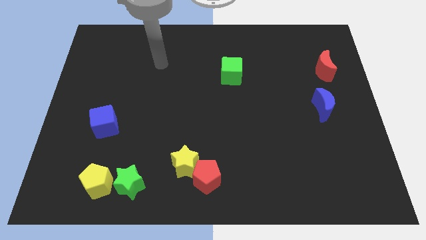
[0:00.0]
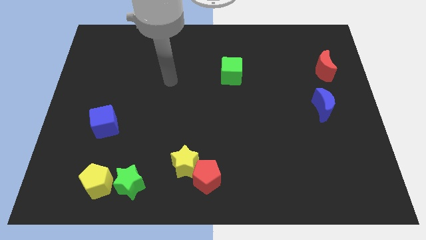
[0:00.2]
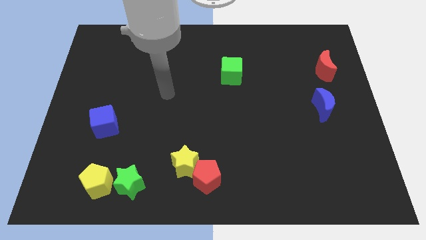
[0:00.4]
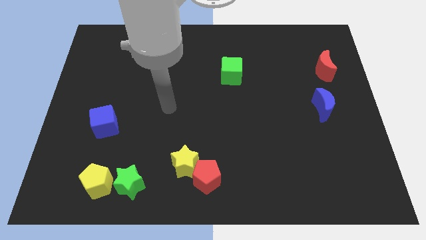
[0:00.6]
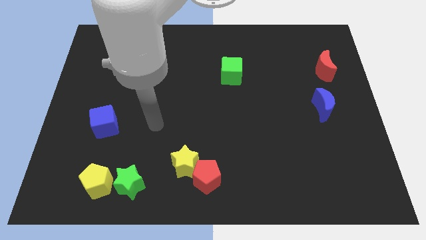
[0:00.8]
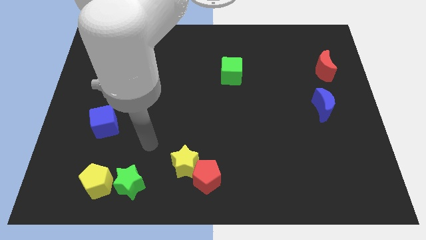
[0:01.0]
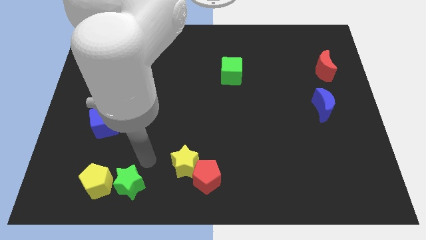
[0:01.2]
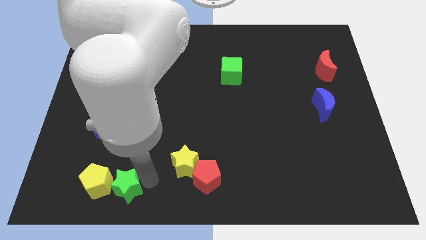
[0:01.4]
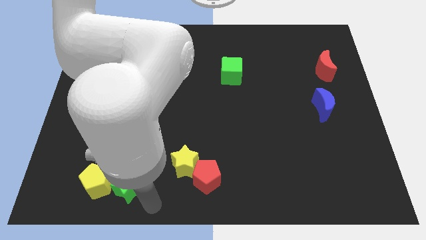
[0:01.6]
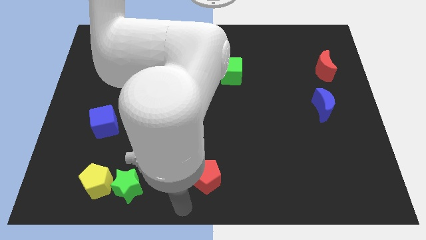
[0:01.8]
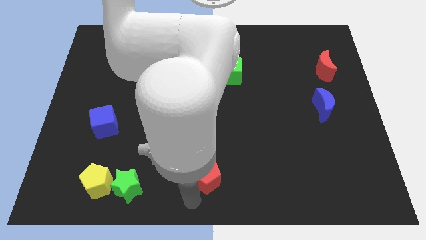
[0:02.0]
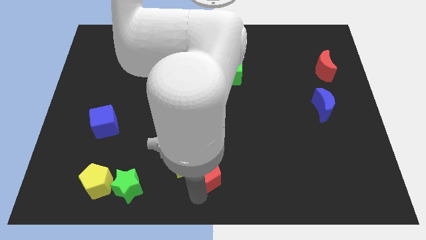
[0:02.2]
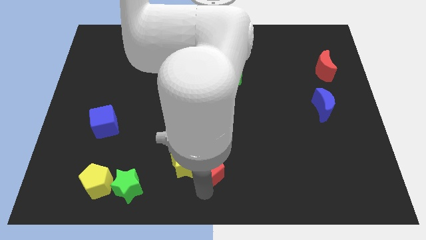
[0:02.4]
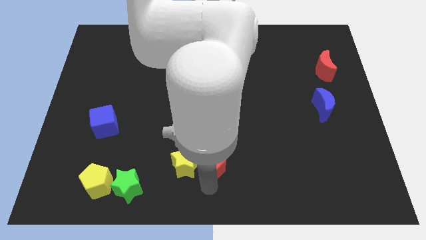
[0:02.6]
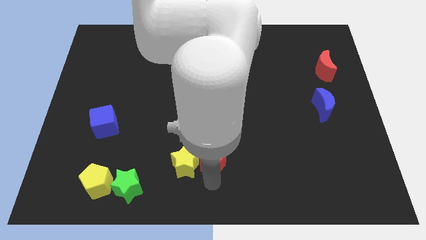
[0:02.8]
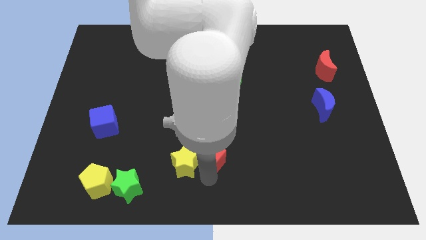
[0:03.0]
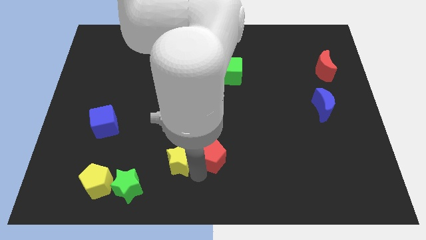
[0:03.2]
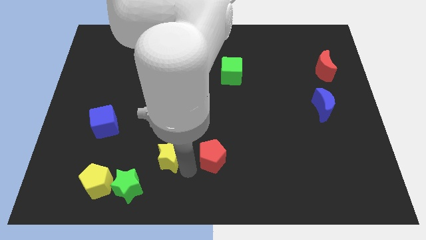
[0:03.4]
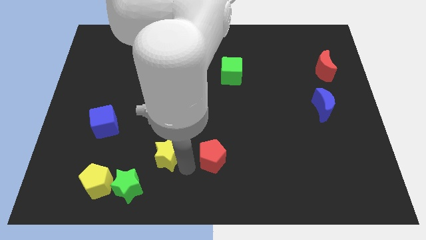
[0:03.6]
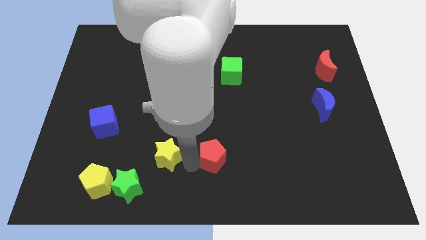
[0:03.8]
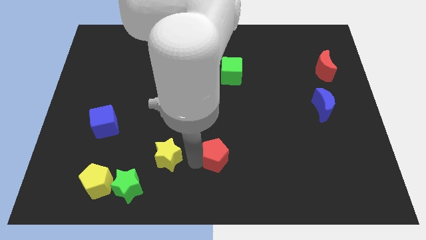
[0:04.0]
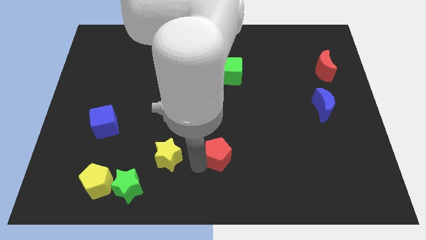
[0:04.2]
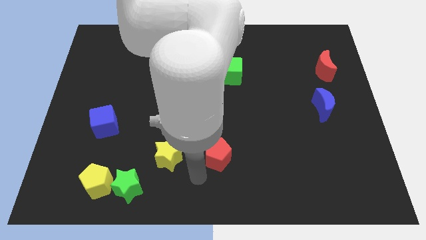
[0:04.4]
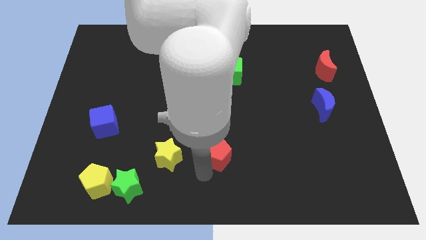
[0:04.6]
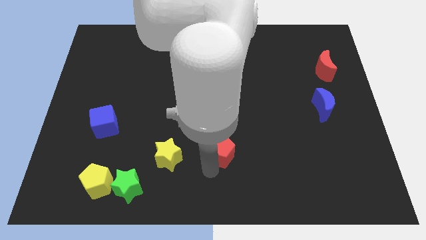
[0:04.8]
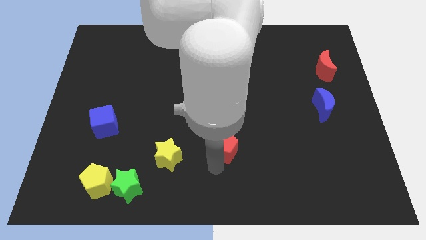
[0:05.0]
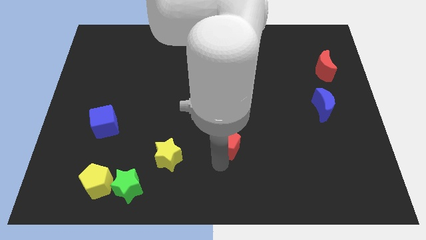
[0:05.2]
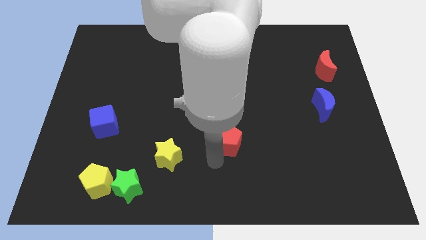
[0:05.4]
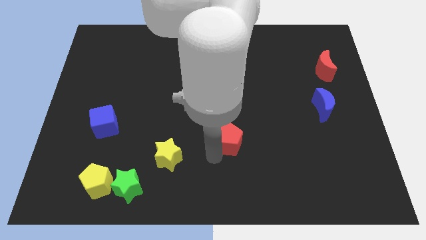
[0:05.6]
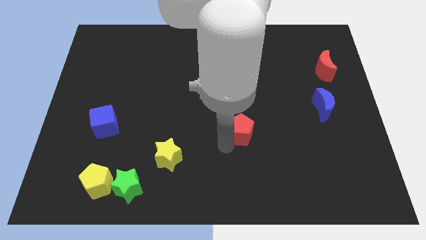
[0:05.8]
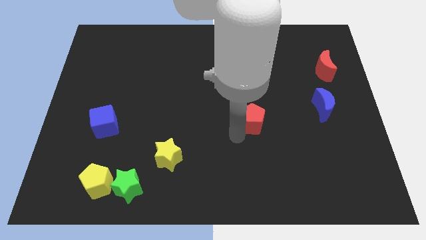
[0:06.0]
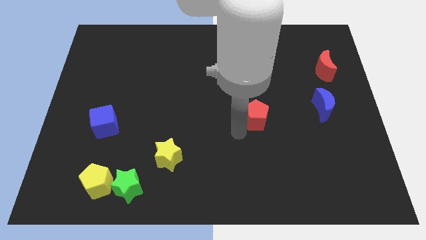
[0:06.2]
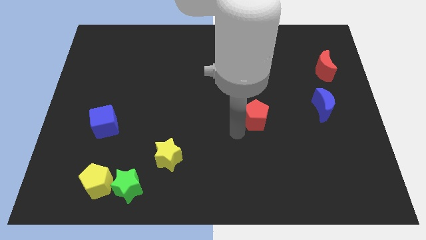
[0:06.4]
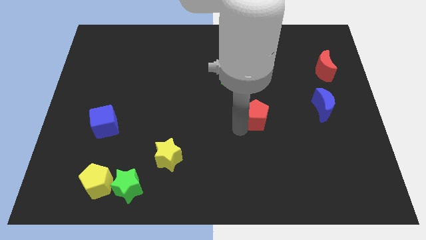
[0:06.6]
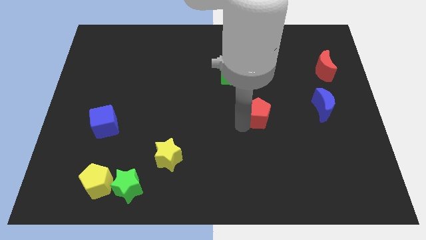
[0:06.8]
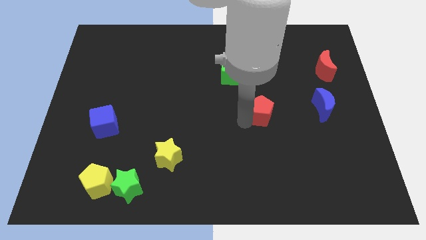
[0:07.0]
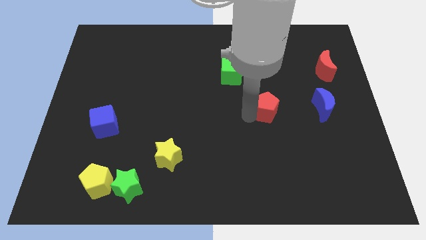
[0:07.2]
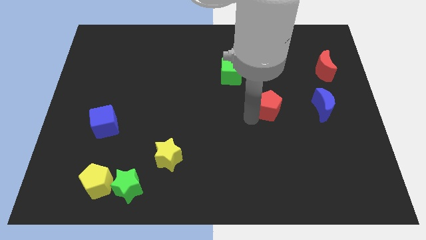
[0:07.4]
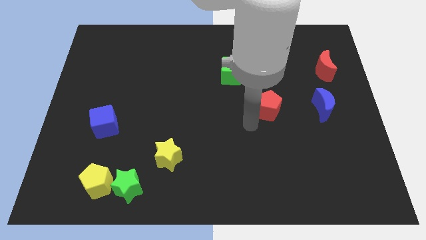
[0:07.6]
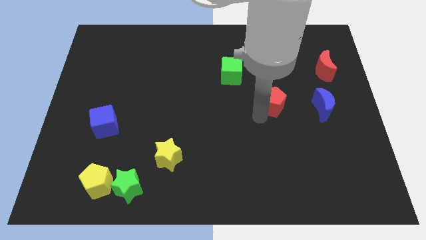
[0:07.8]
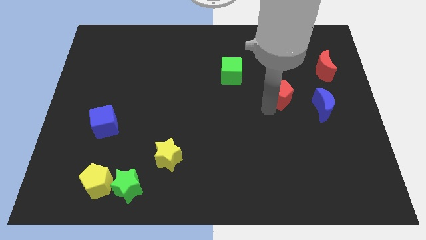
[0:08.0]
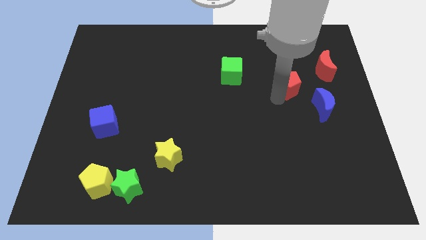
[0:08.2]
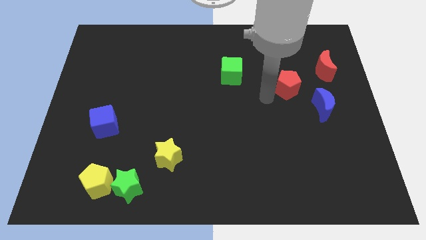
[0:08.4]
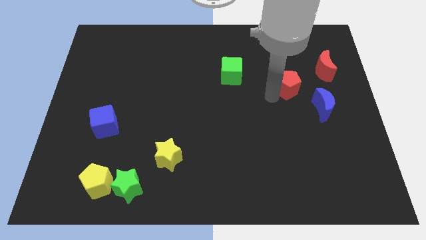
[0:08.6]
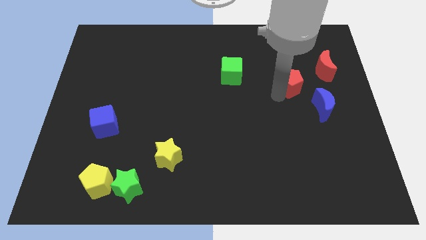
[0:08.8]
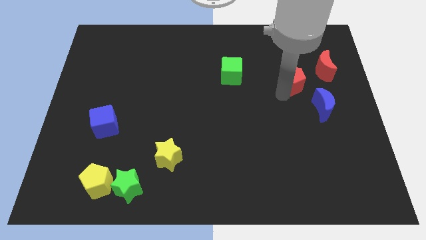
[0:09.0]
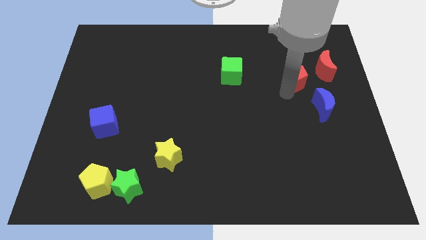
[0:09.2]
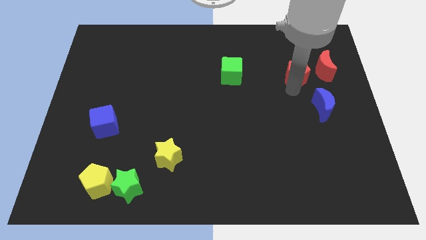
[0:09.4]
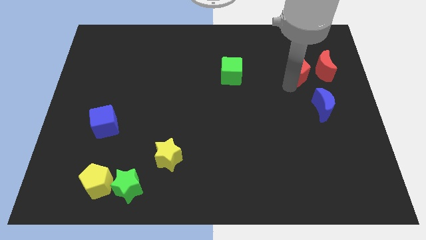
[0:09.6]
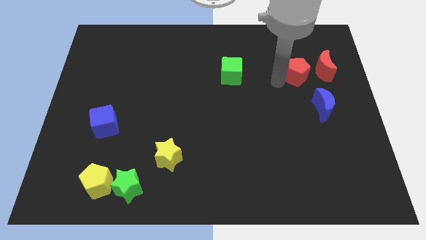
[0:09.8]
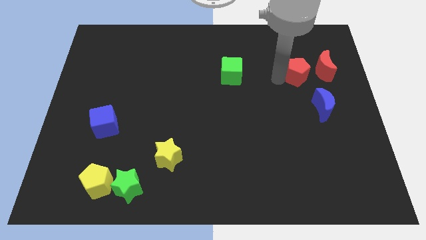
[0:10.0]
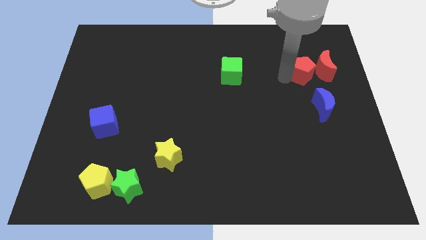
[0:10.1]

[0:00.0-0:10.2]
move the red pentagon towards the red moon

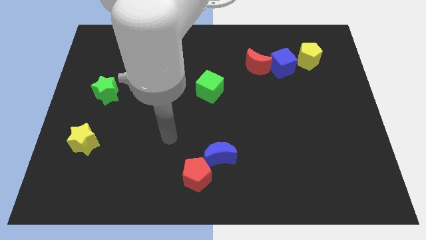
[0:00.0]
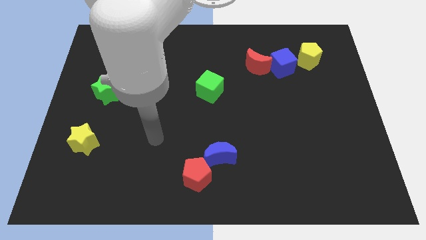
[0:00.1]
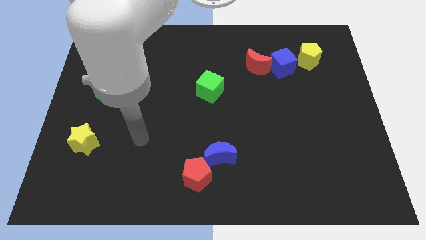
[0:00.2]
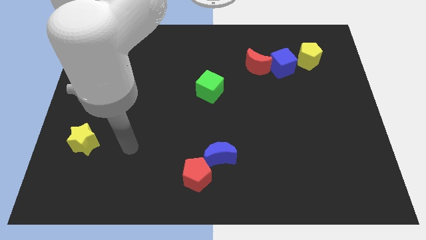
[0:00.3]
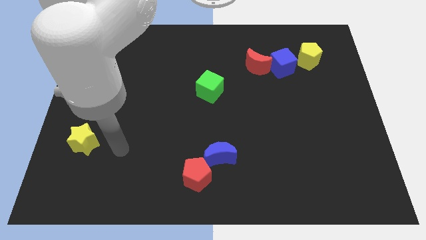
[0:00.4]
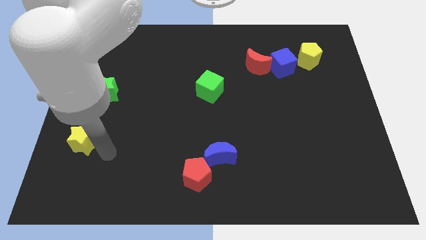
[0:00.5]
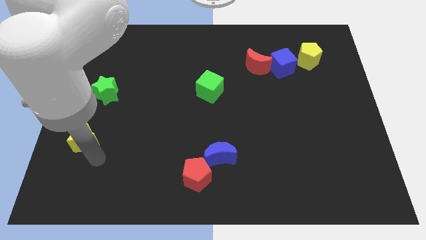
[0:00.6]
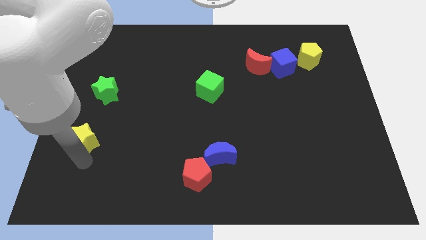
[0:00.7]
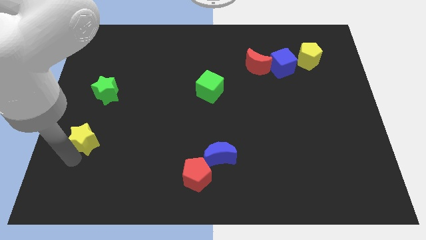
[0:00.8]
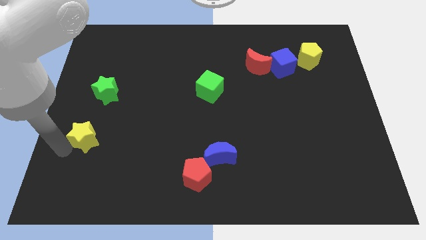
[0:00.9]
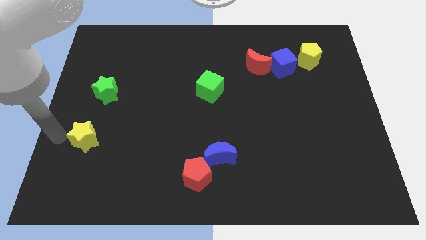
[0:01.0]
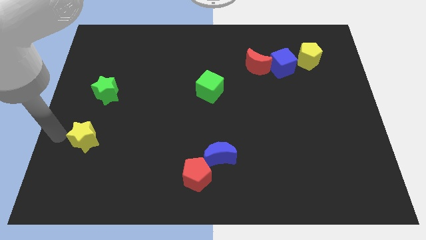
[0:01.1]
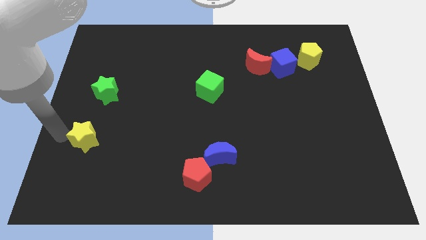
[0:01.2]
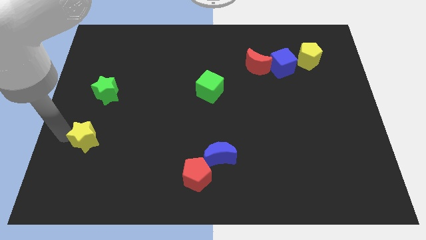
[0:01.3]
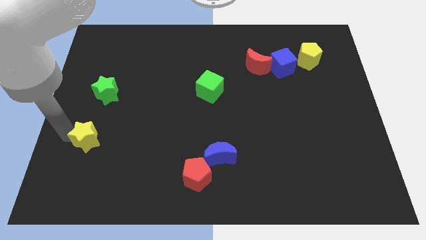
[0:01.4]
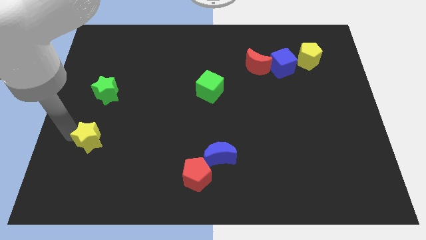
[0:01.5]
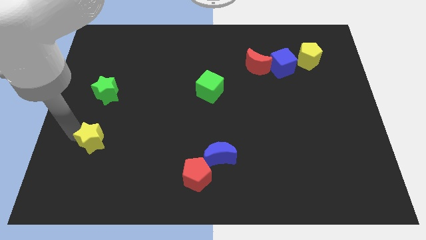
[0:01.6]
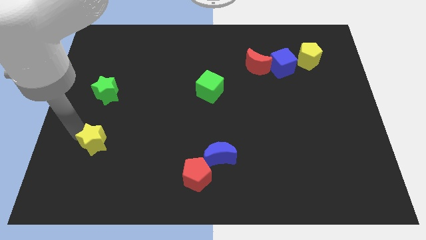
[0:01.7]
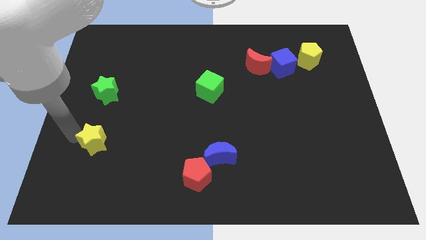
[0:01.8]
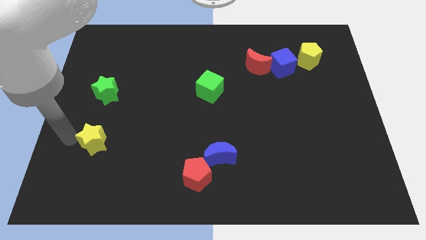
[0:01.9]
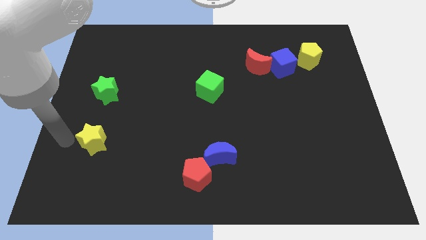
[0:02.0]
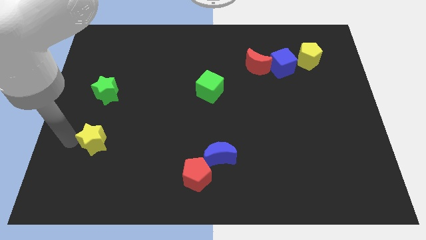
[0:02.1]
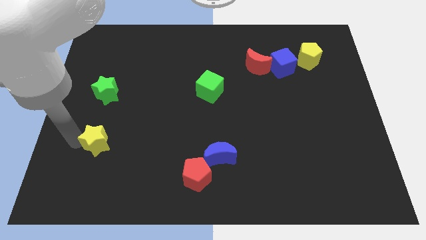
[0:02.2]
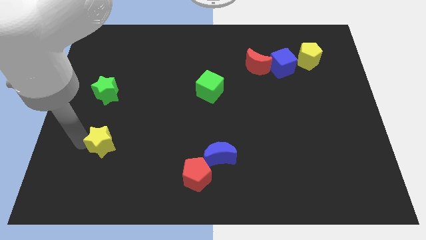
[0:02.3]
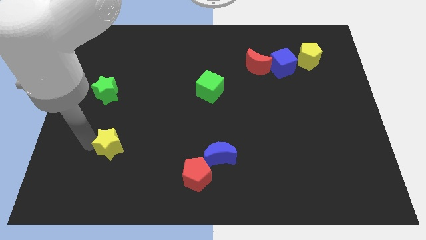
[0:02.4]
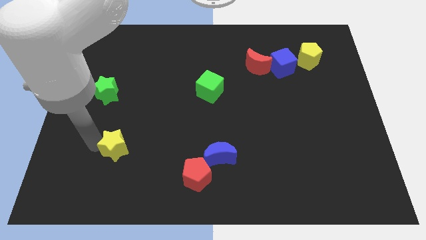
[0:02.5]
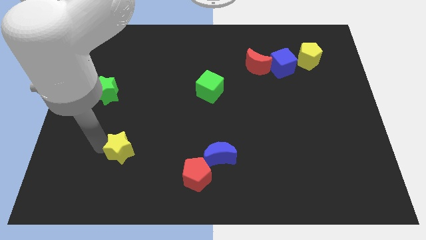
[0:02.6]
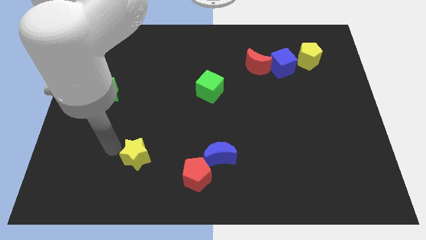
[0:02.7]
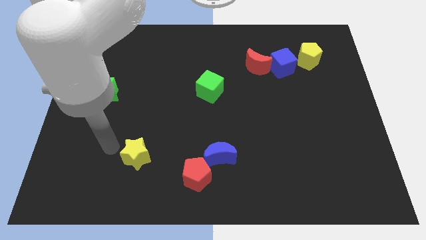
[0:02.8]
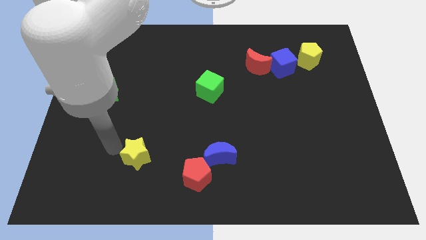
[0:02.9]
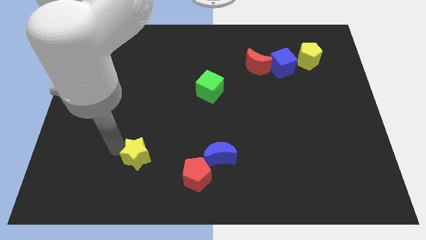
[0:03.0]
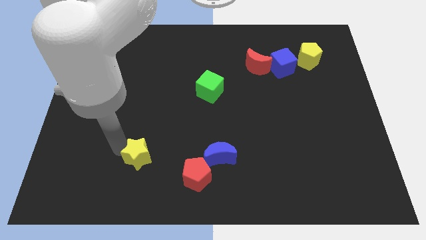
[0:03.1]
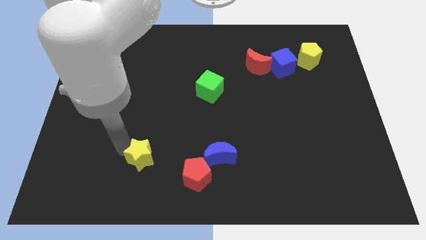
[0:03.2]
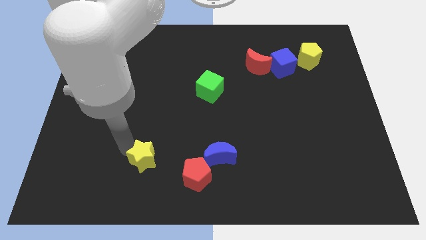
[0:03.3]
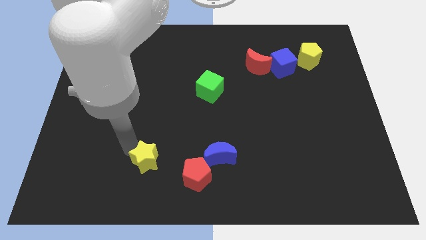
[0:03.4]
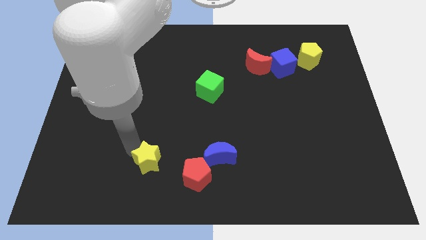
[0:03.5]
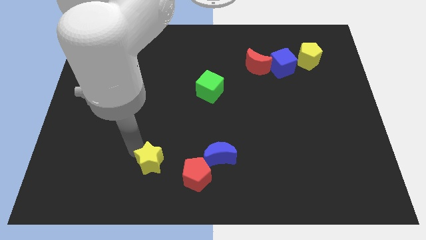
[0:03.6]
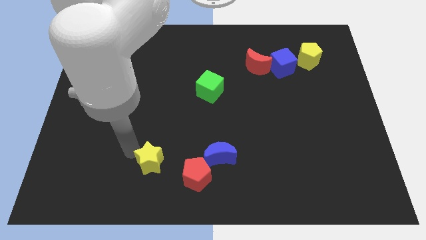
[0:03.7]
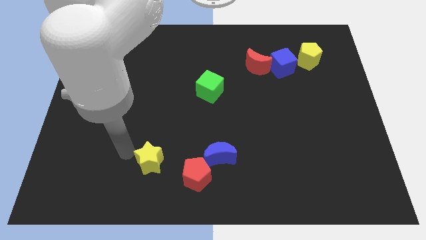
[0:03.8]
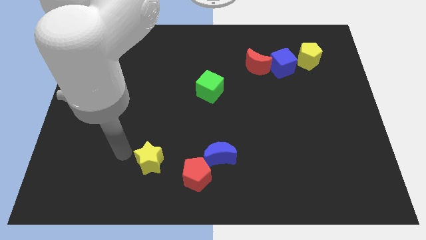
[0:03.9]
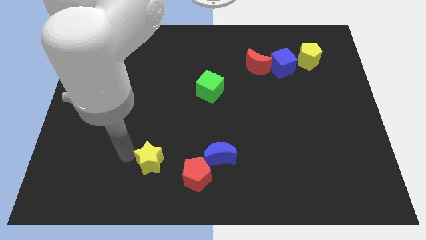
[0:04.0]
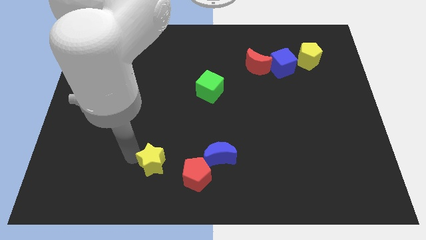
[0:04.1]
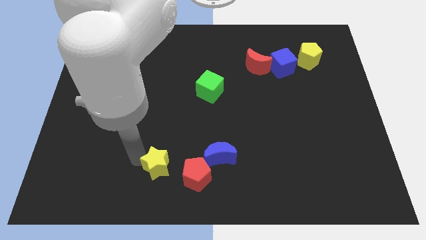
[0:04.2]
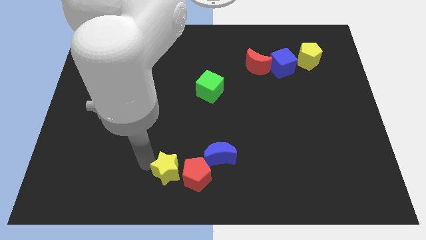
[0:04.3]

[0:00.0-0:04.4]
slide the yellow star next to the red pentagon
